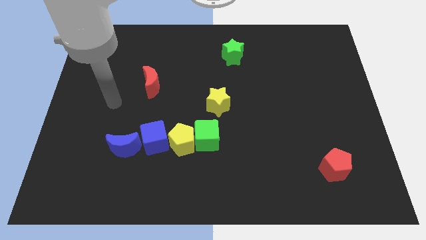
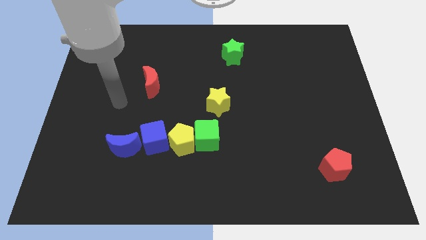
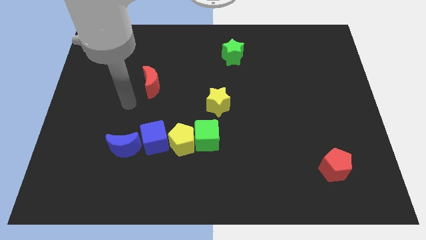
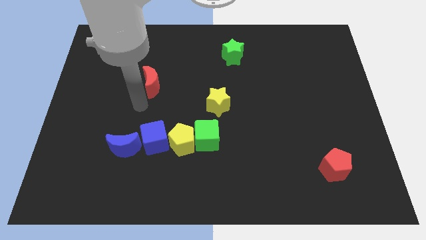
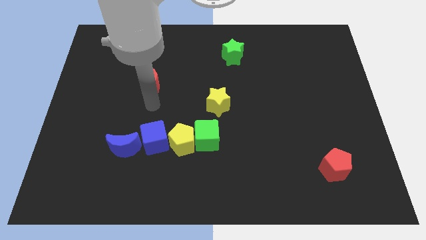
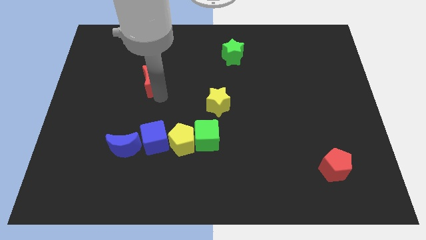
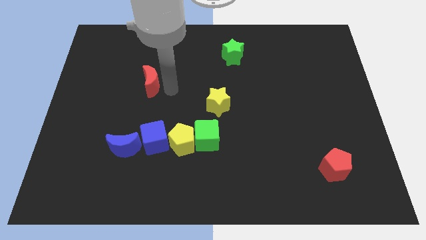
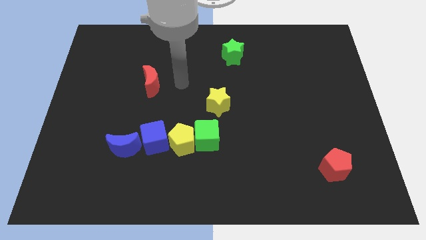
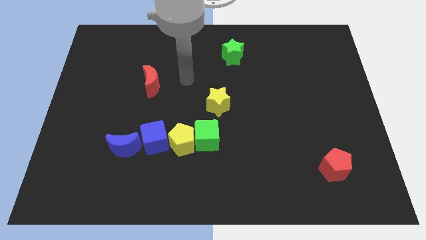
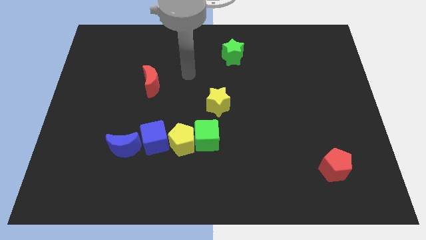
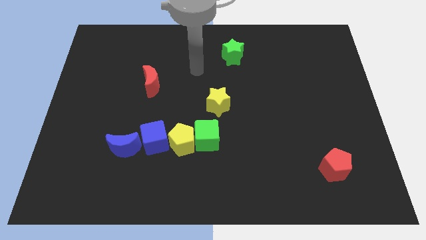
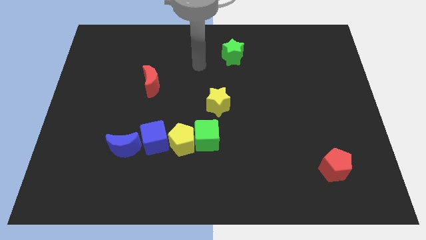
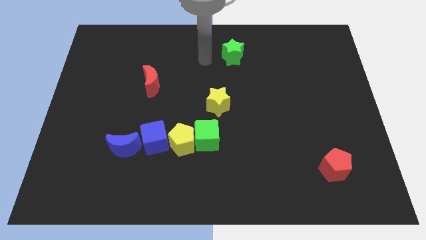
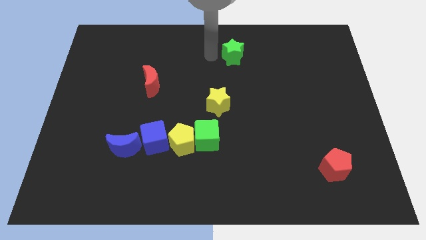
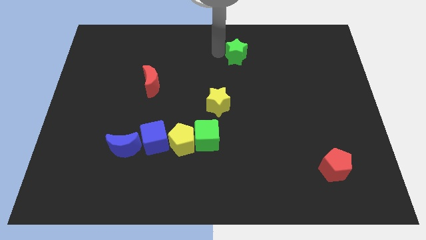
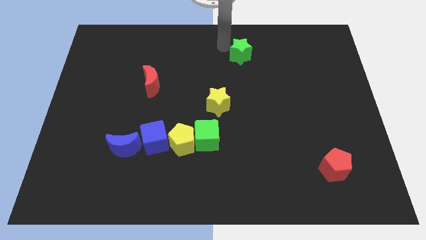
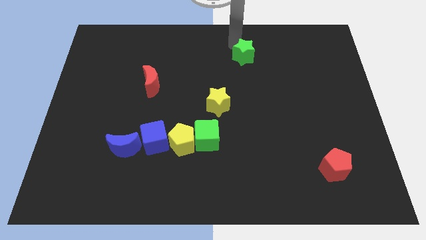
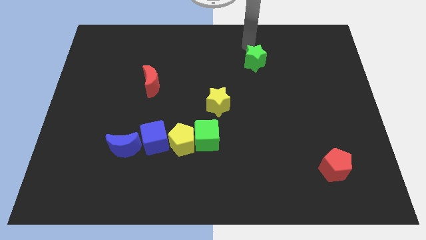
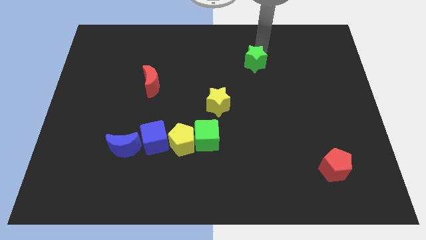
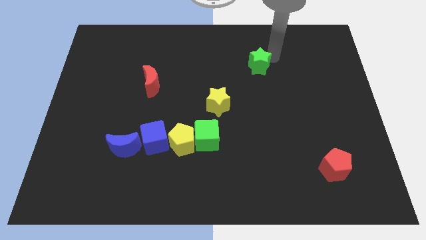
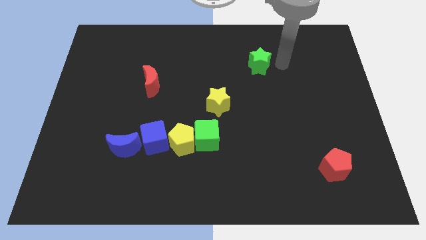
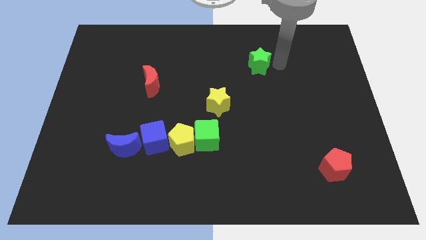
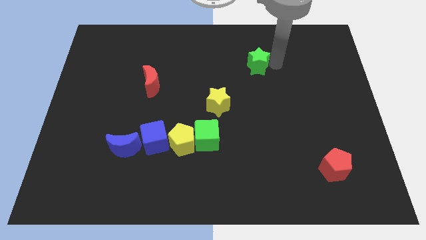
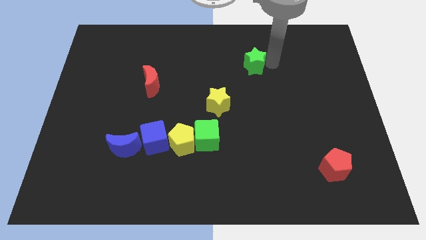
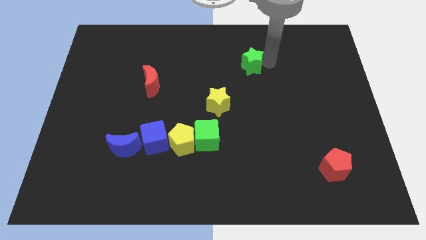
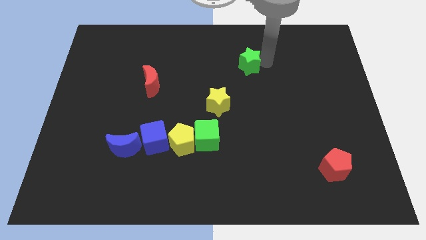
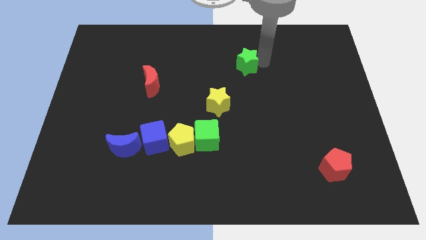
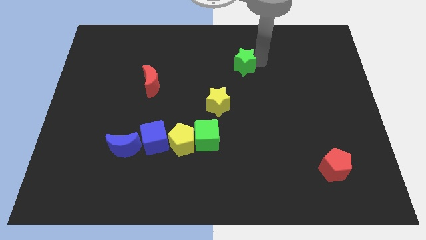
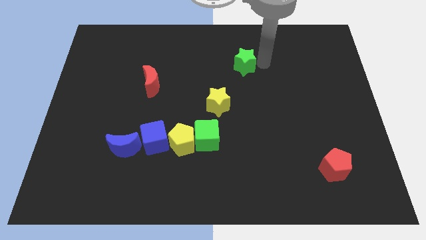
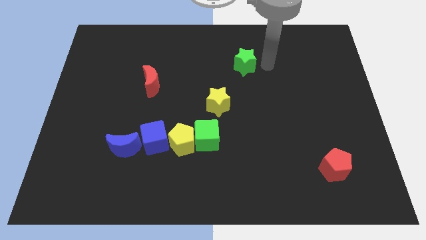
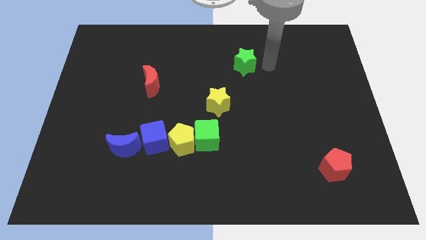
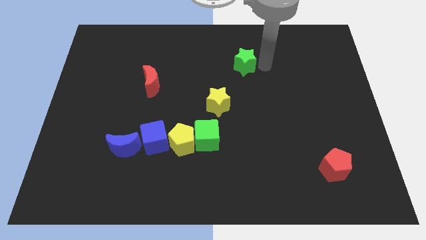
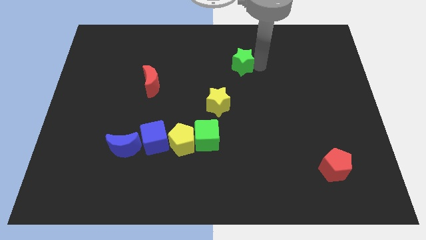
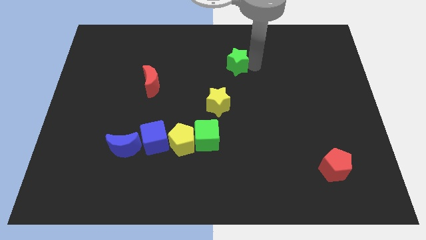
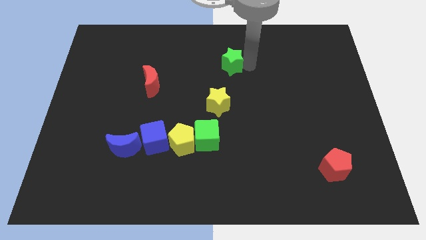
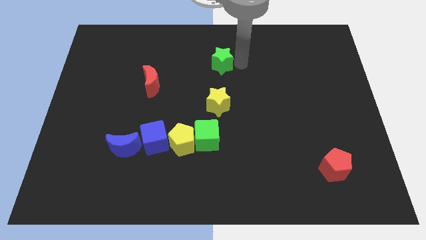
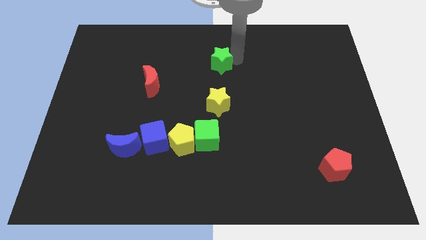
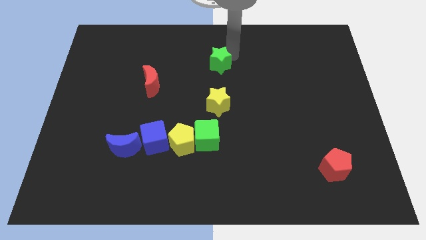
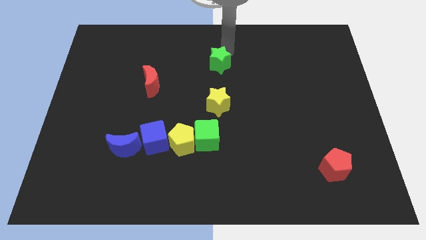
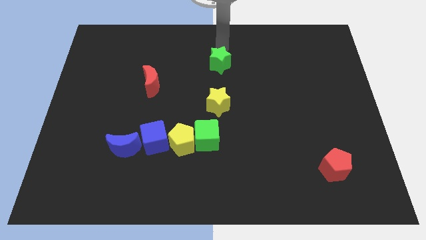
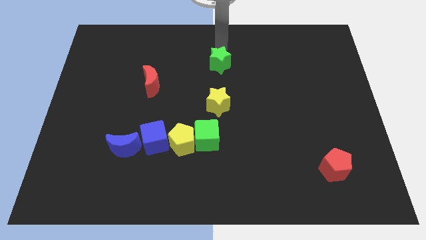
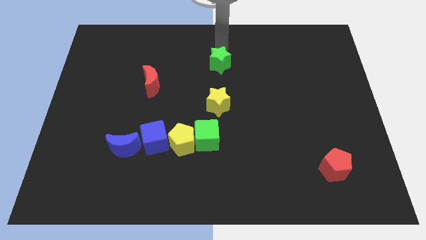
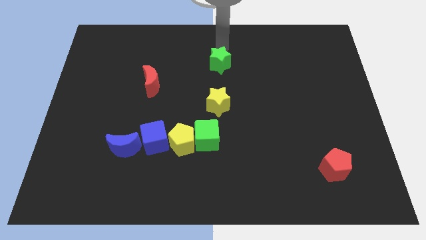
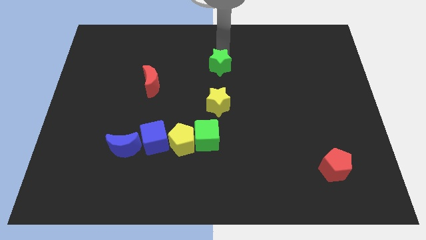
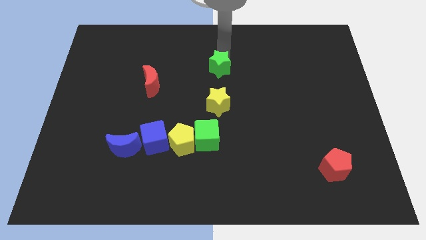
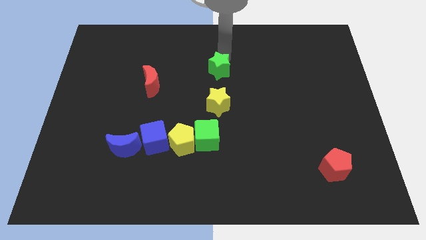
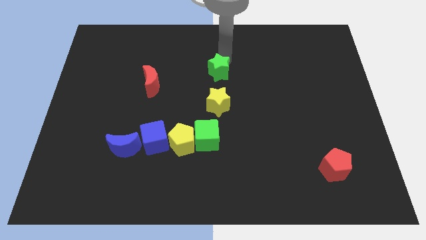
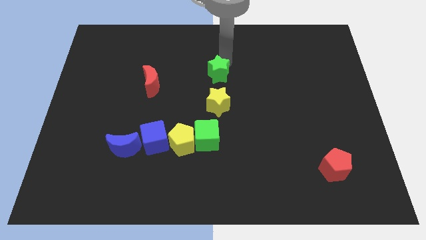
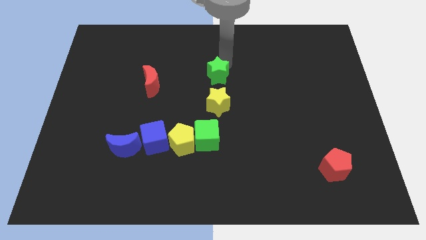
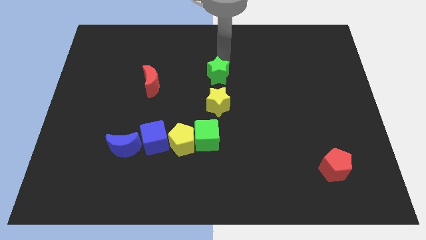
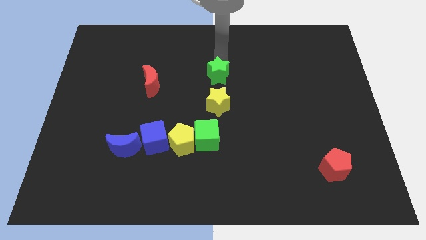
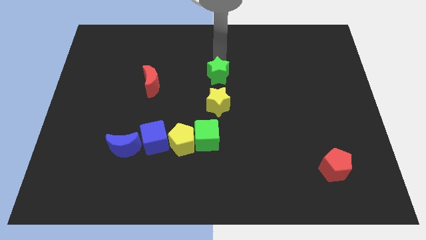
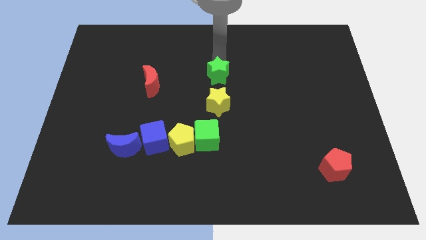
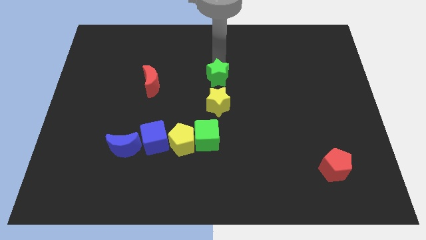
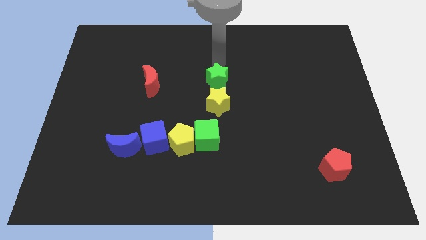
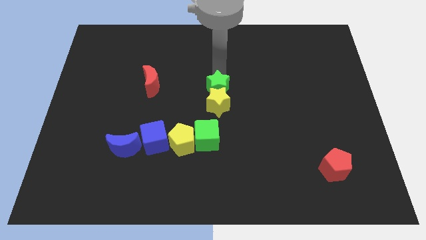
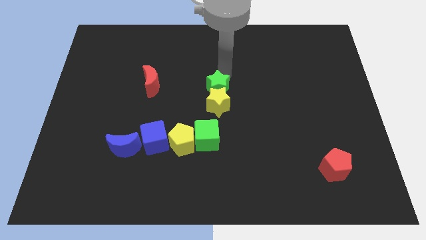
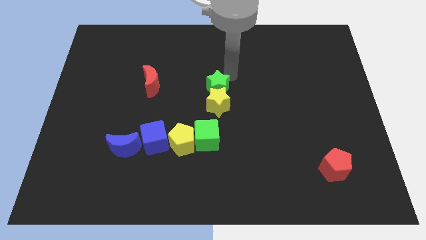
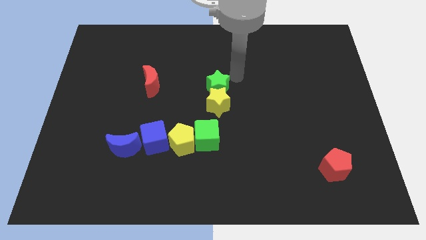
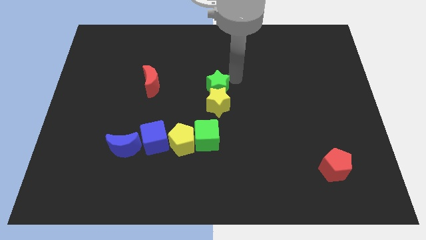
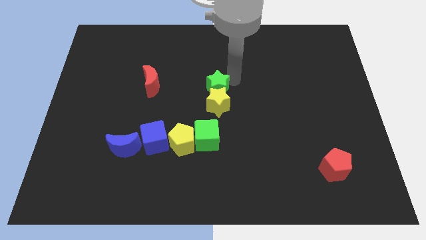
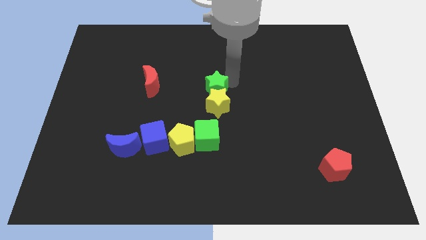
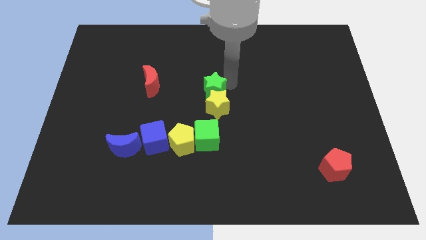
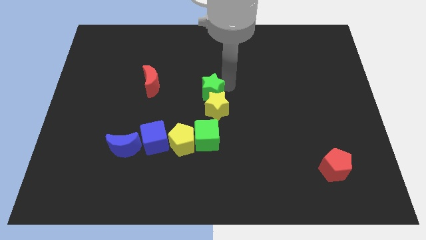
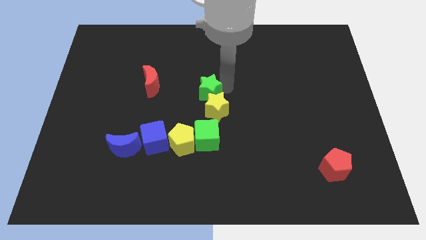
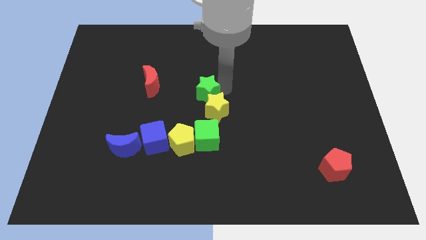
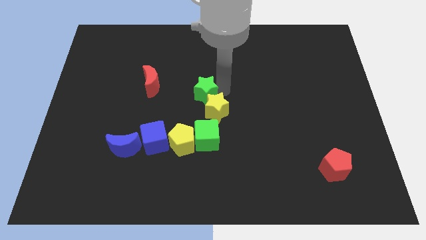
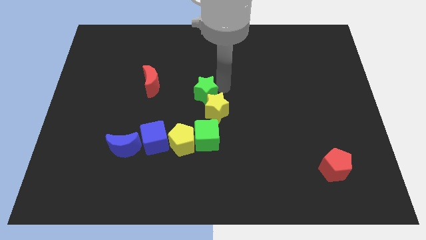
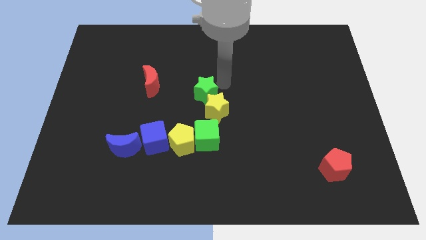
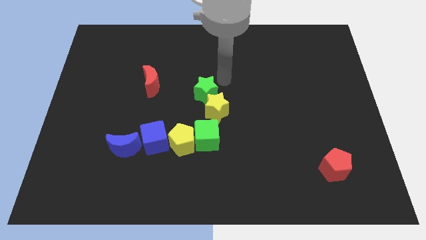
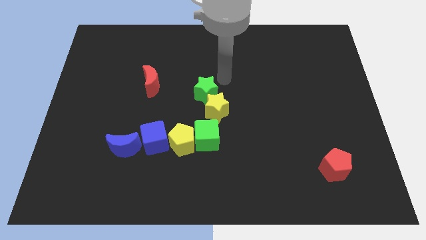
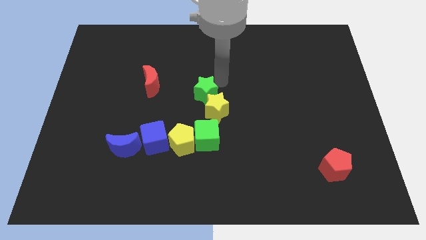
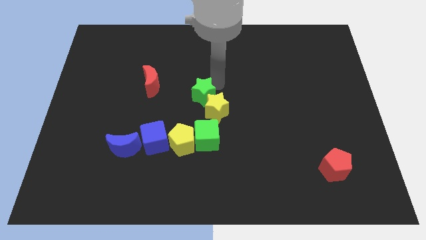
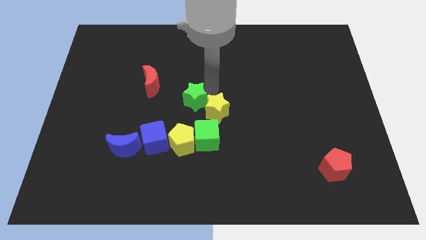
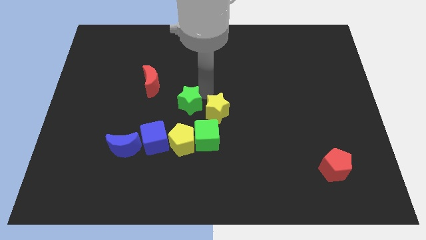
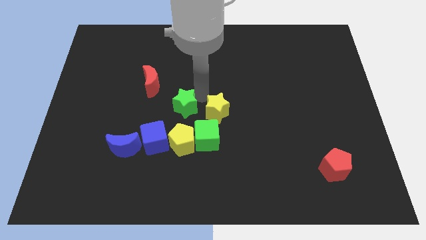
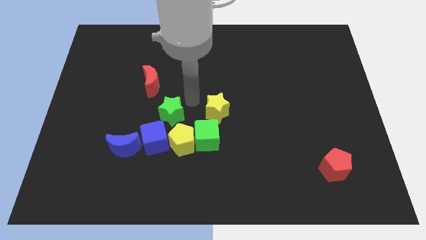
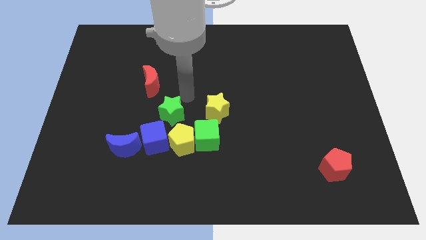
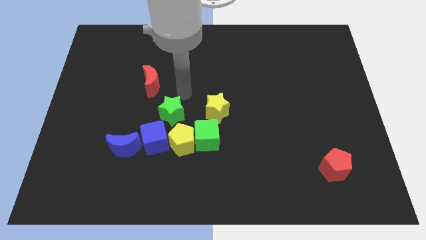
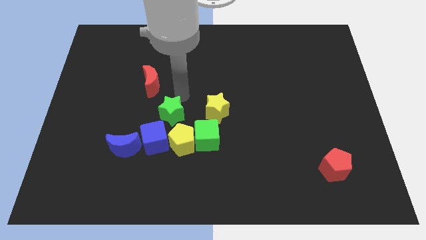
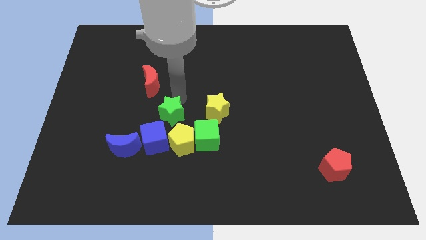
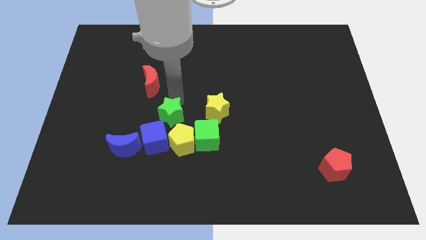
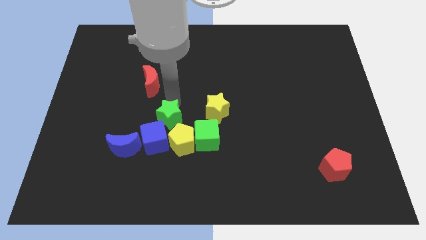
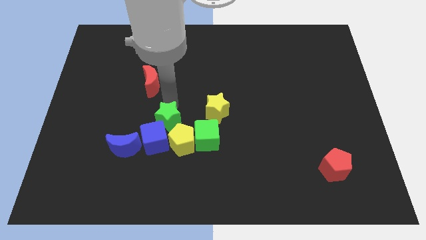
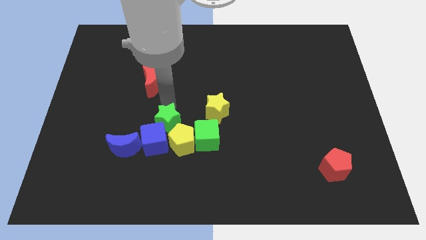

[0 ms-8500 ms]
move the green star close to the blue cube
